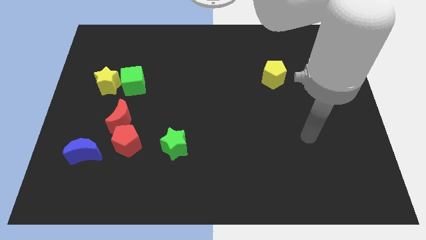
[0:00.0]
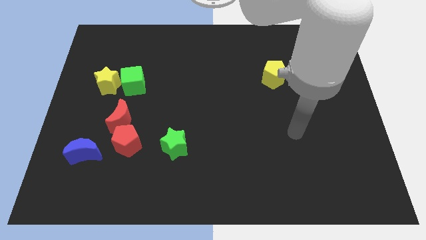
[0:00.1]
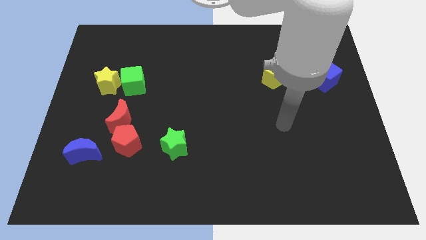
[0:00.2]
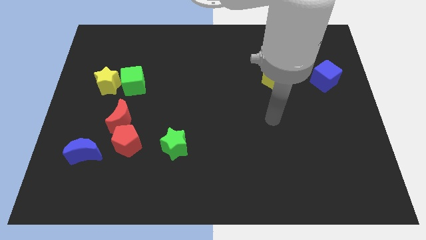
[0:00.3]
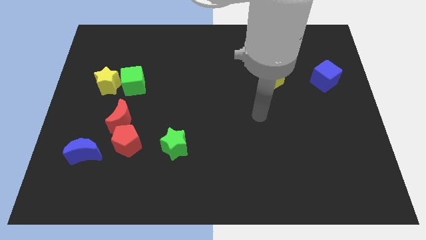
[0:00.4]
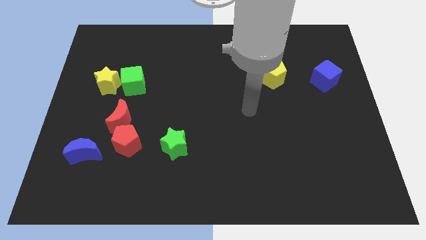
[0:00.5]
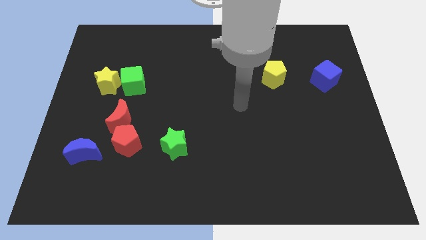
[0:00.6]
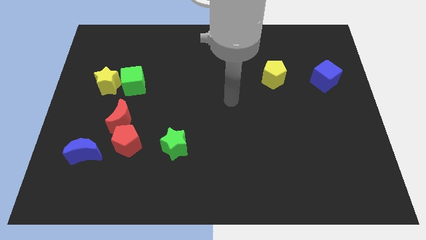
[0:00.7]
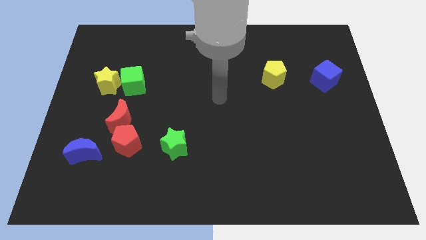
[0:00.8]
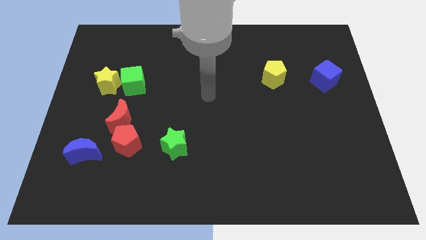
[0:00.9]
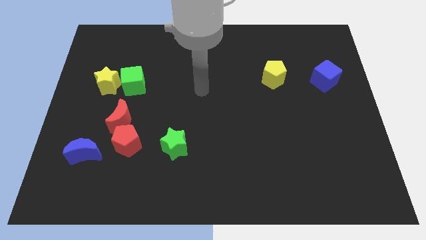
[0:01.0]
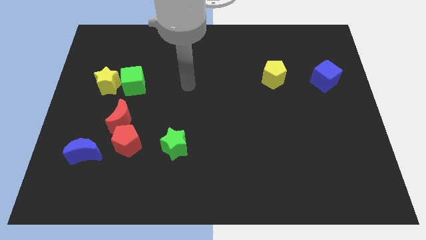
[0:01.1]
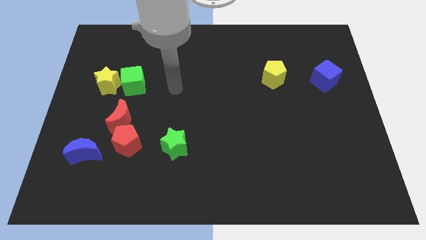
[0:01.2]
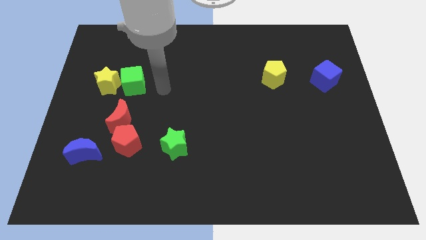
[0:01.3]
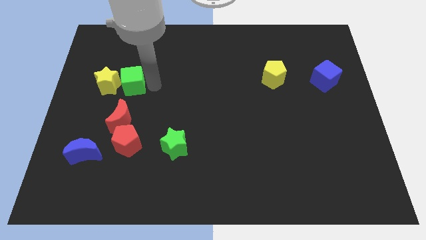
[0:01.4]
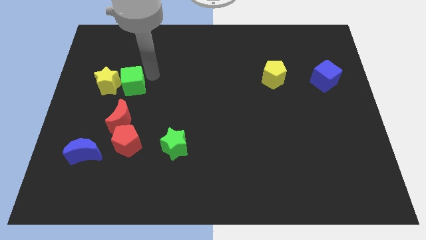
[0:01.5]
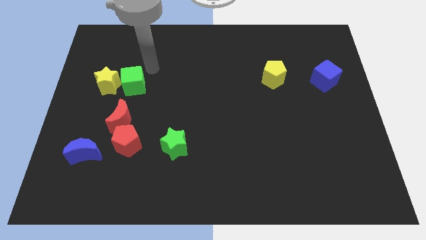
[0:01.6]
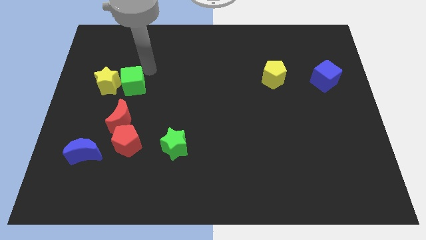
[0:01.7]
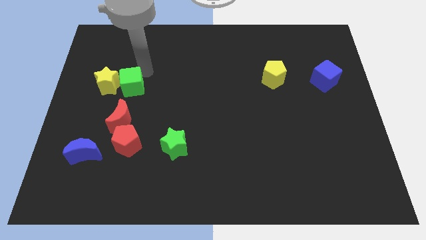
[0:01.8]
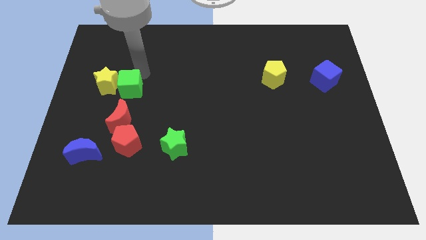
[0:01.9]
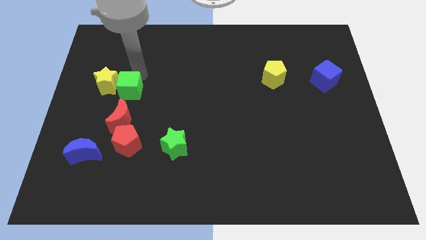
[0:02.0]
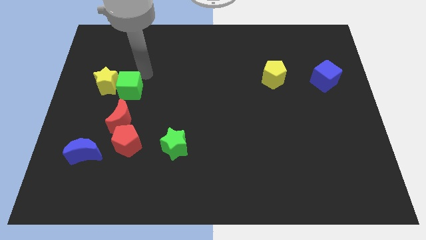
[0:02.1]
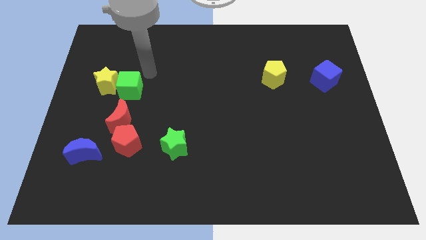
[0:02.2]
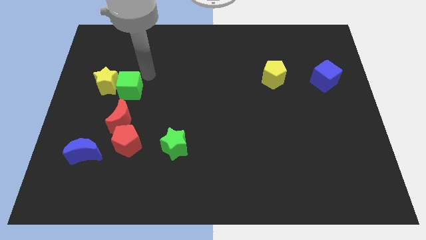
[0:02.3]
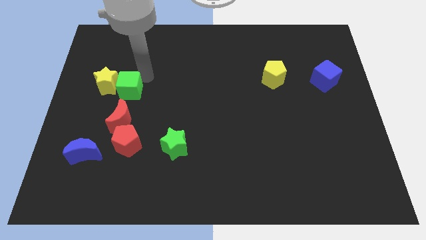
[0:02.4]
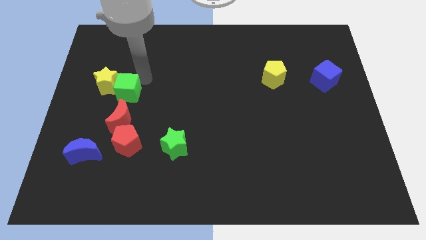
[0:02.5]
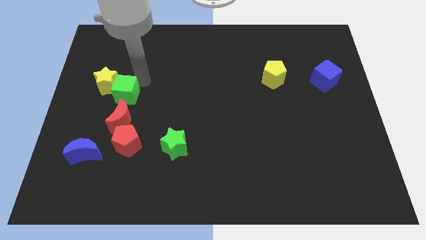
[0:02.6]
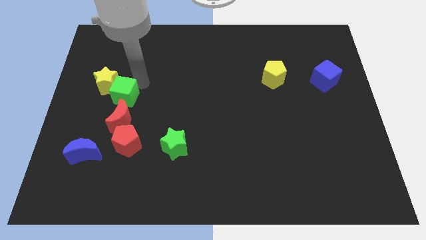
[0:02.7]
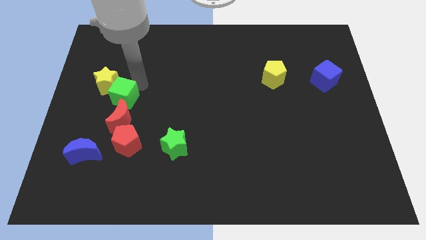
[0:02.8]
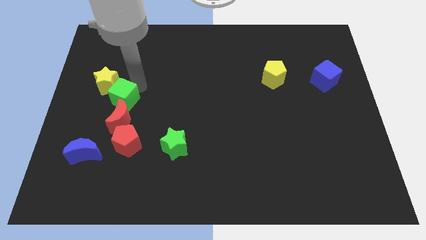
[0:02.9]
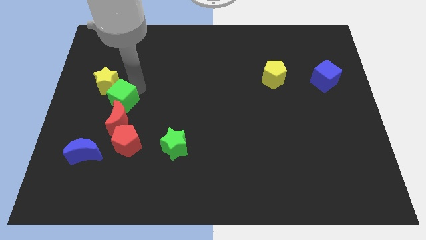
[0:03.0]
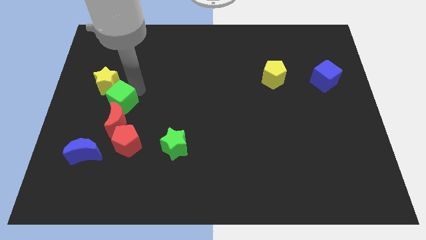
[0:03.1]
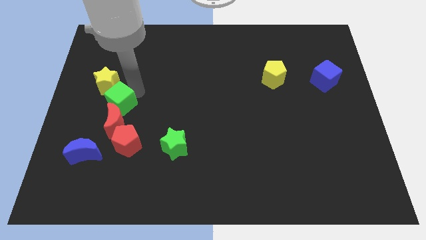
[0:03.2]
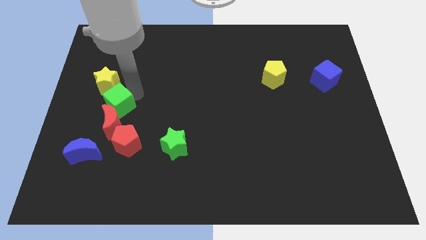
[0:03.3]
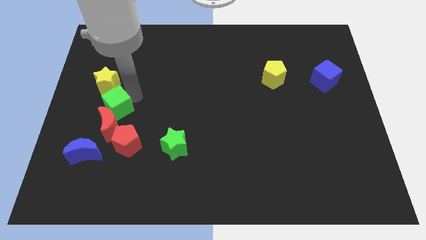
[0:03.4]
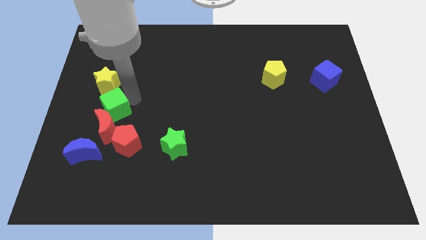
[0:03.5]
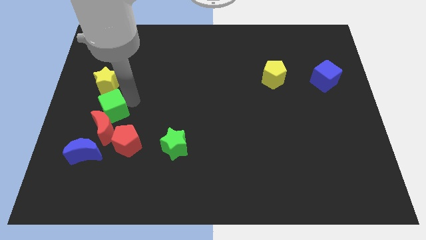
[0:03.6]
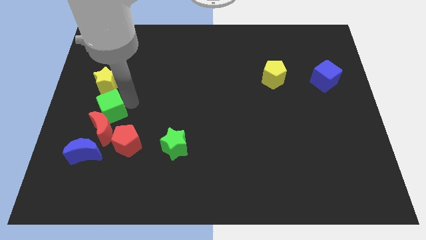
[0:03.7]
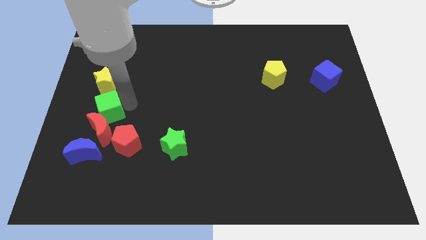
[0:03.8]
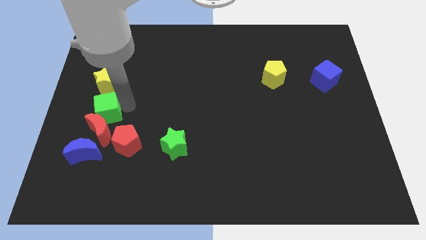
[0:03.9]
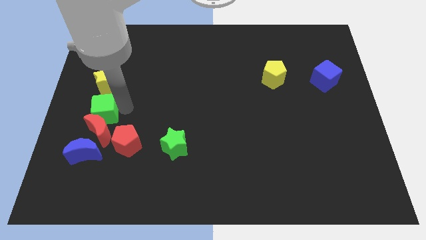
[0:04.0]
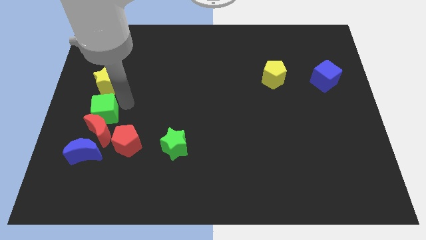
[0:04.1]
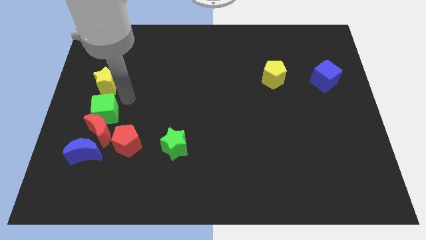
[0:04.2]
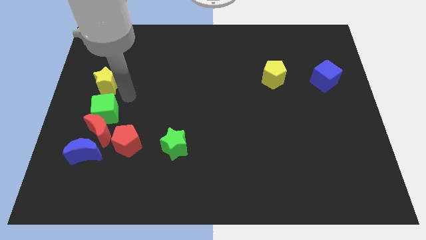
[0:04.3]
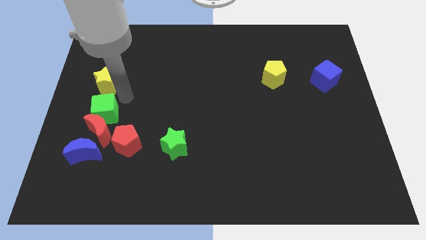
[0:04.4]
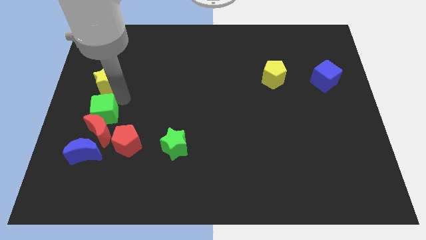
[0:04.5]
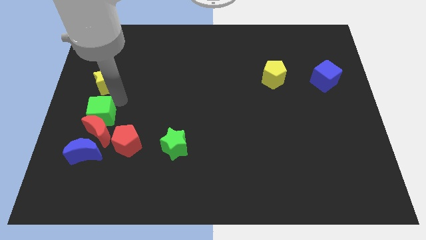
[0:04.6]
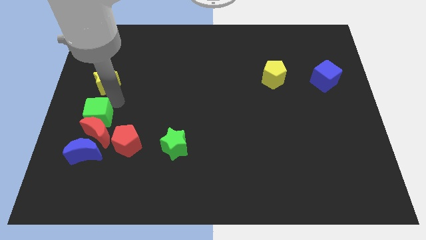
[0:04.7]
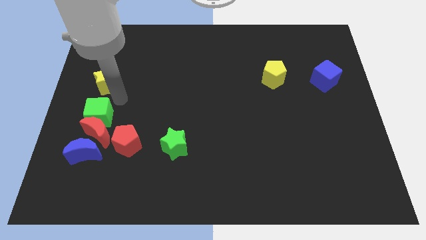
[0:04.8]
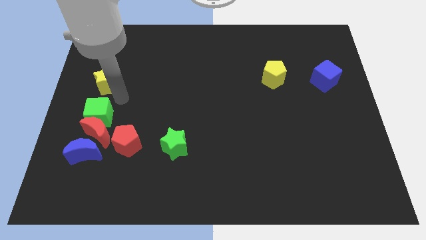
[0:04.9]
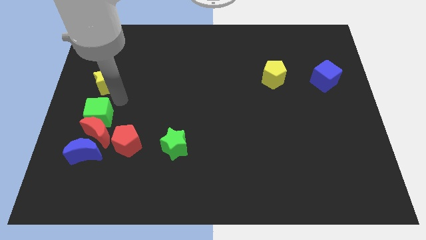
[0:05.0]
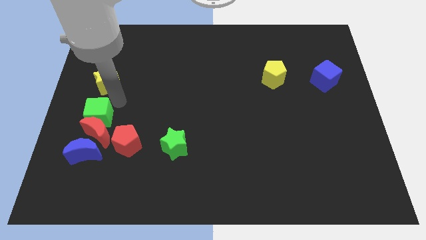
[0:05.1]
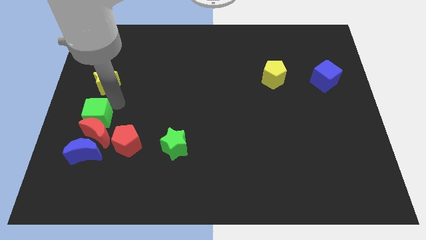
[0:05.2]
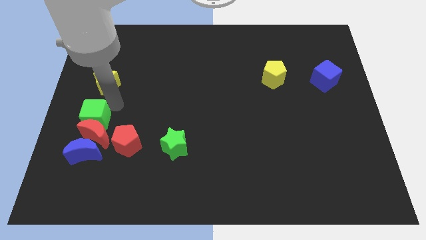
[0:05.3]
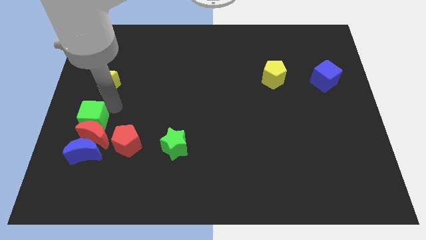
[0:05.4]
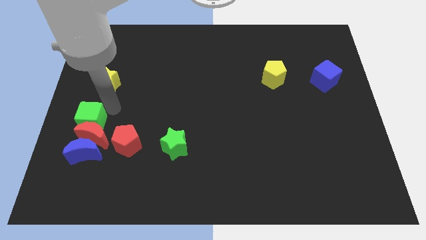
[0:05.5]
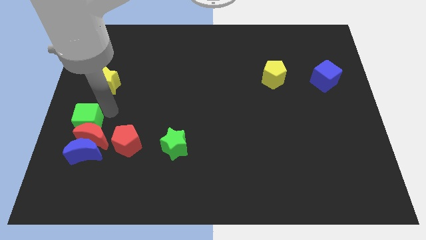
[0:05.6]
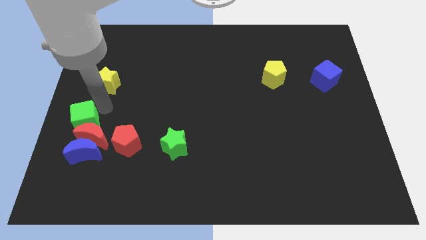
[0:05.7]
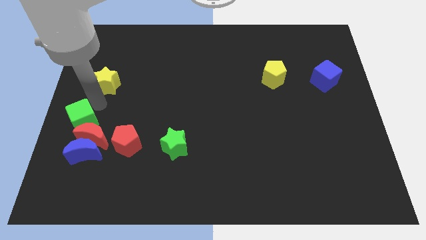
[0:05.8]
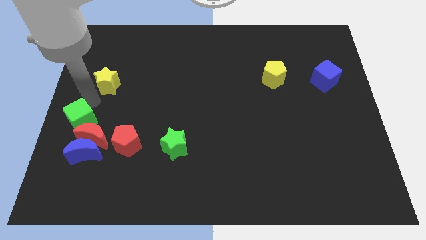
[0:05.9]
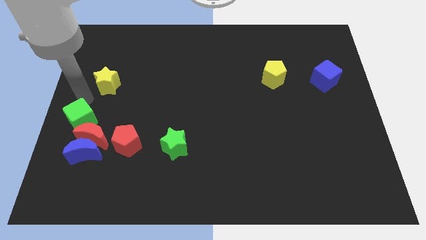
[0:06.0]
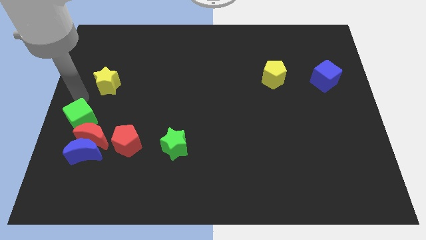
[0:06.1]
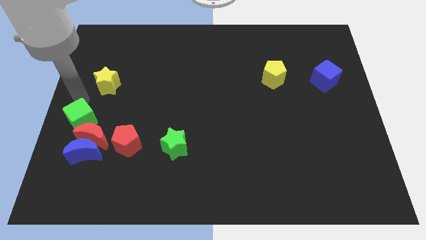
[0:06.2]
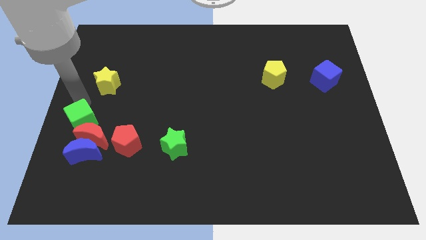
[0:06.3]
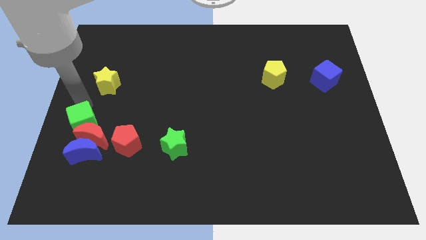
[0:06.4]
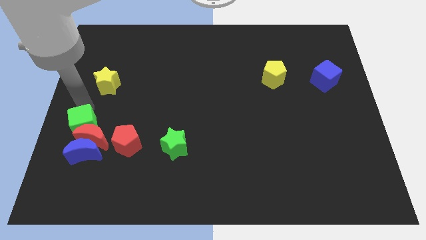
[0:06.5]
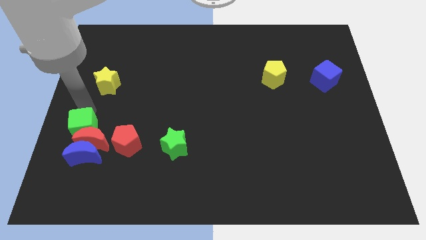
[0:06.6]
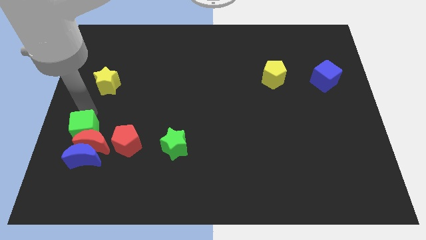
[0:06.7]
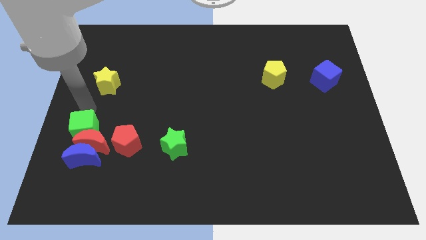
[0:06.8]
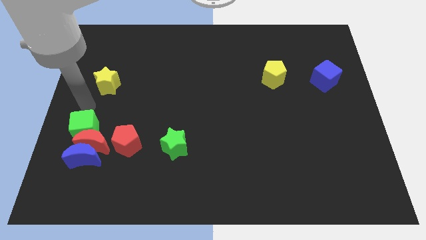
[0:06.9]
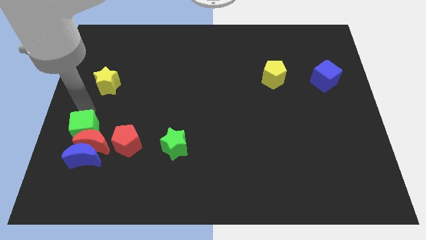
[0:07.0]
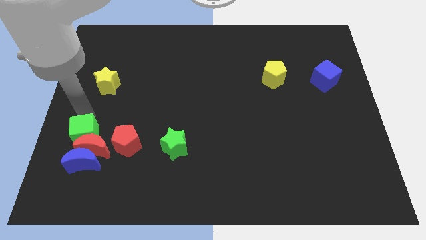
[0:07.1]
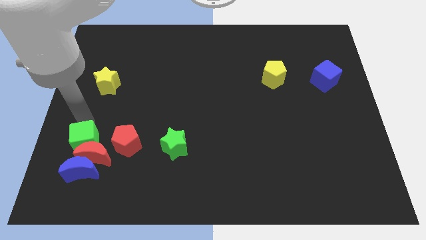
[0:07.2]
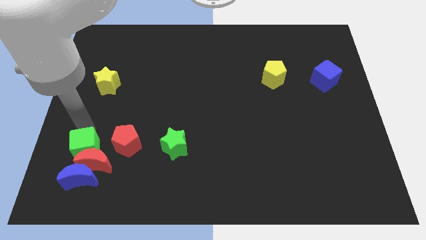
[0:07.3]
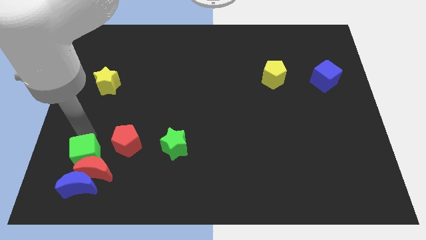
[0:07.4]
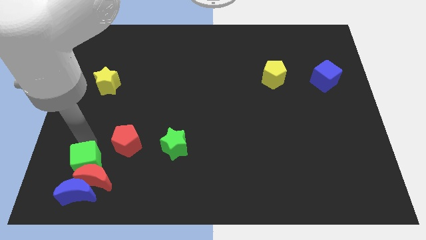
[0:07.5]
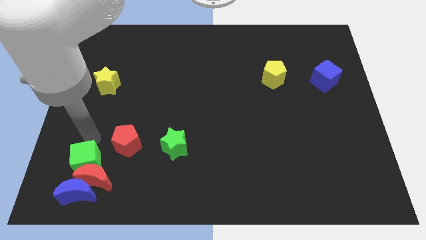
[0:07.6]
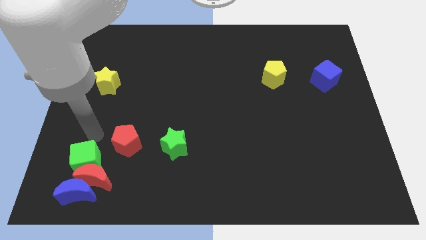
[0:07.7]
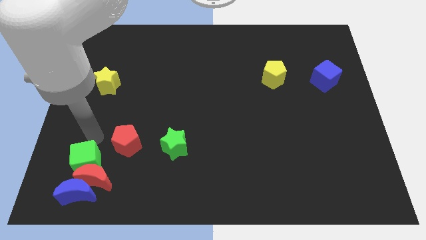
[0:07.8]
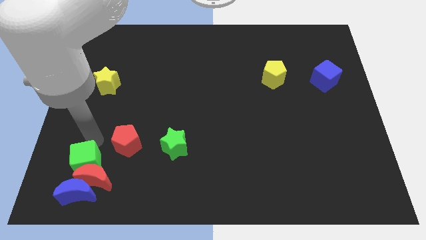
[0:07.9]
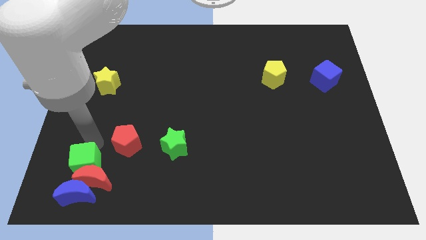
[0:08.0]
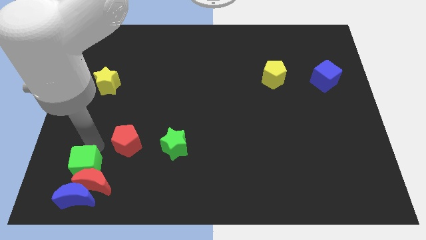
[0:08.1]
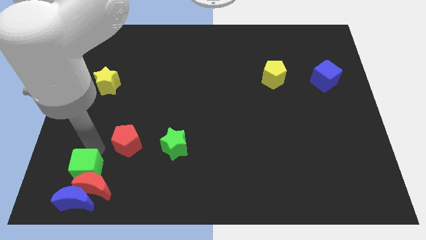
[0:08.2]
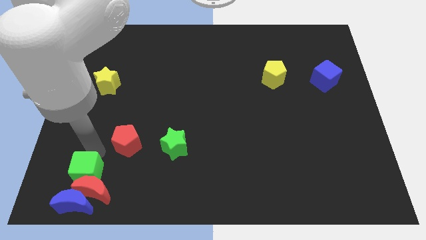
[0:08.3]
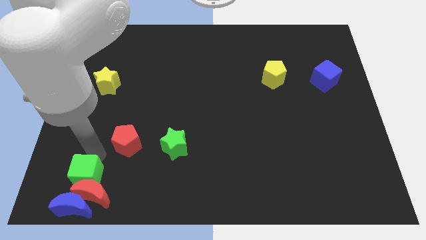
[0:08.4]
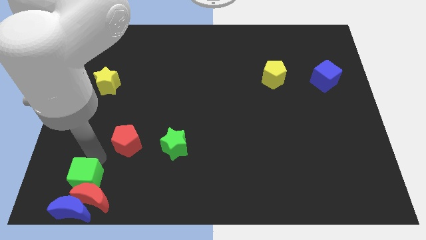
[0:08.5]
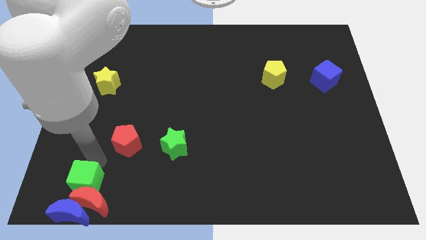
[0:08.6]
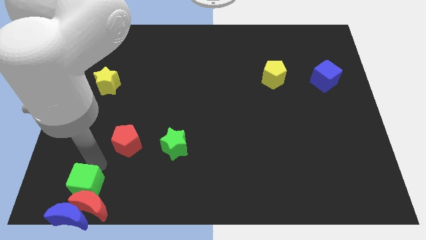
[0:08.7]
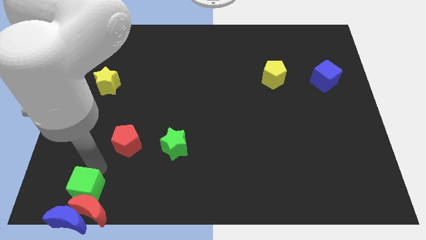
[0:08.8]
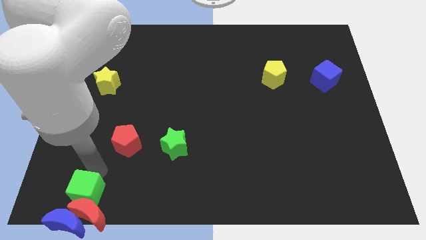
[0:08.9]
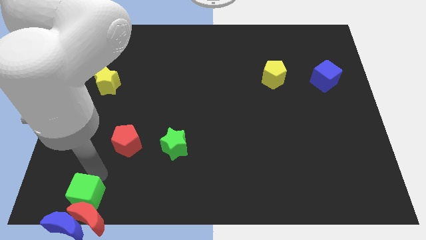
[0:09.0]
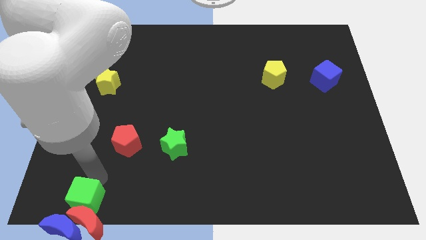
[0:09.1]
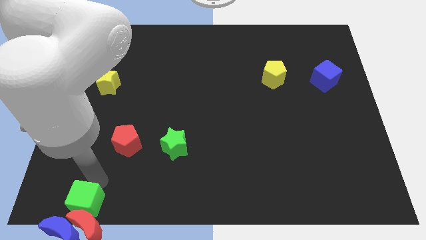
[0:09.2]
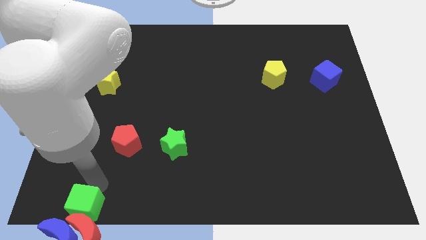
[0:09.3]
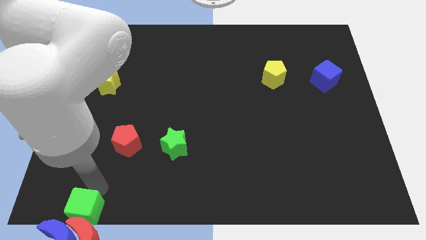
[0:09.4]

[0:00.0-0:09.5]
slide the green cube next to the blue moon
